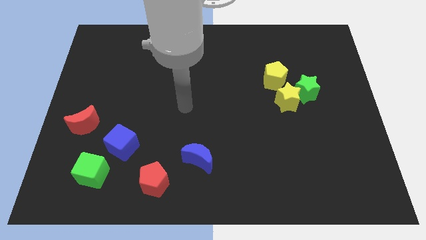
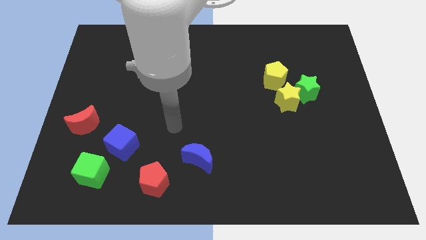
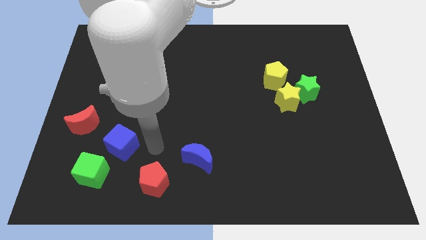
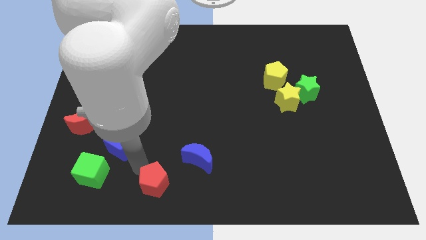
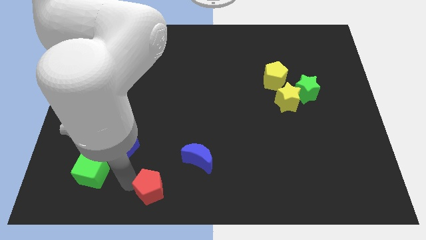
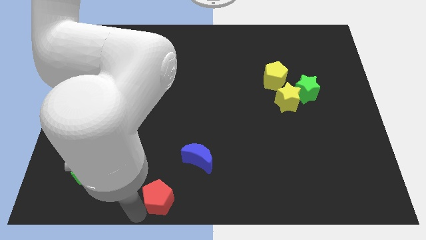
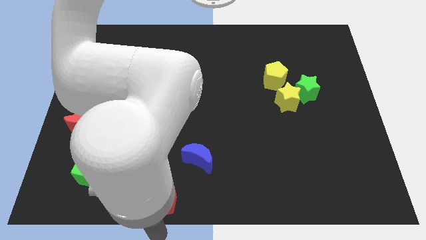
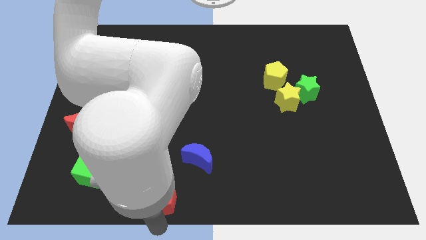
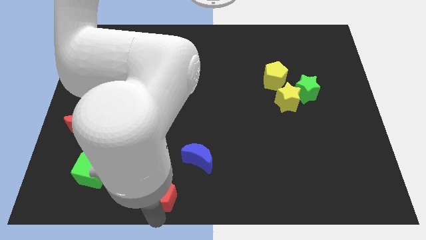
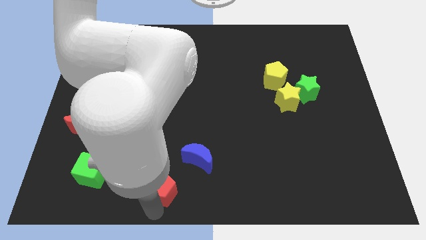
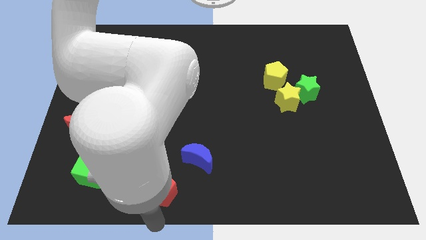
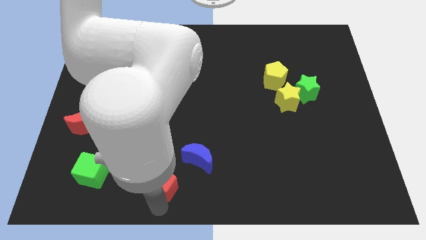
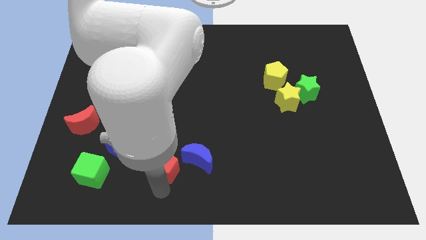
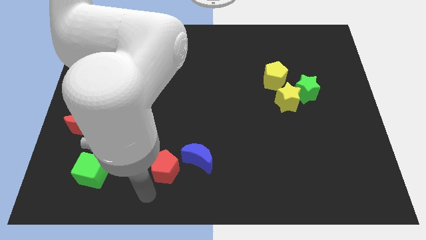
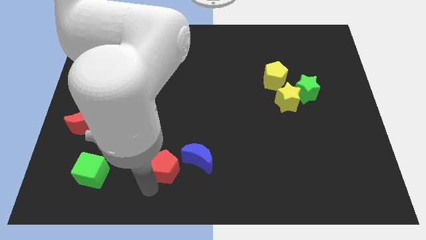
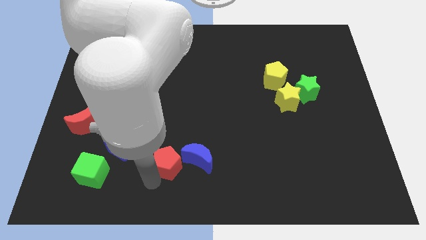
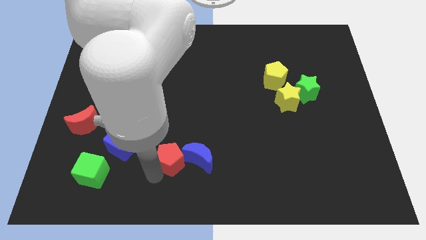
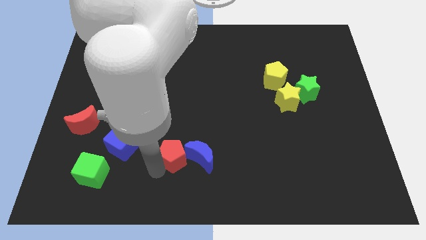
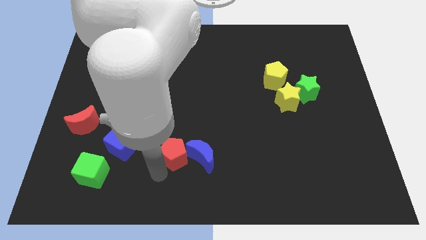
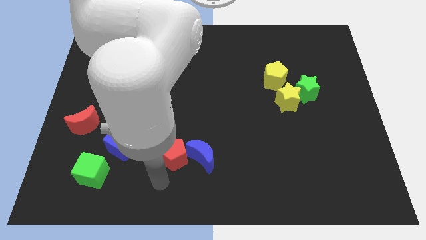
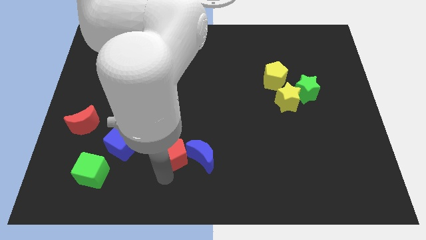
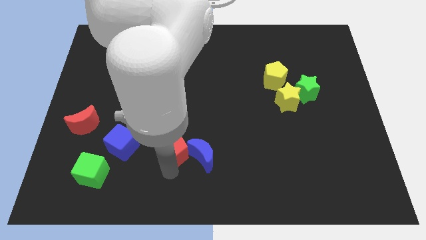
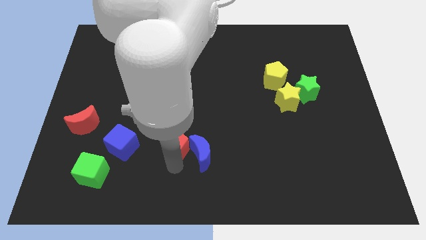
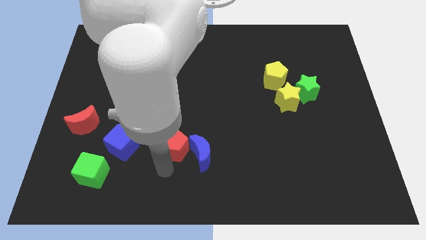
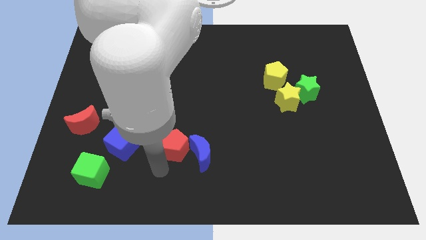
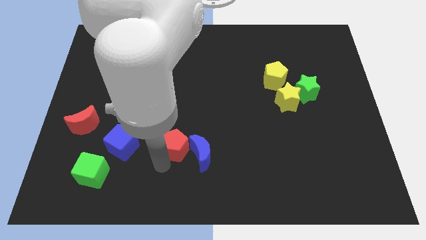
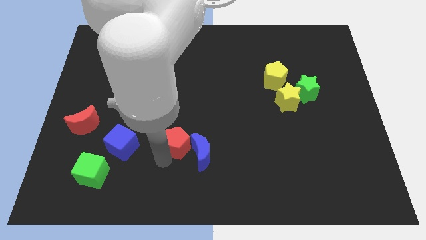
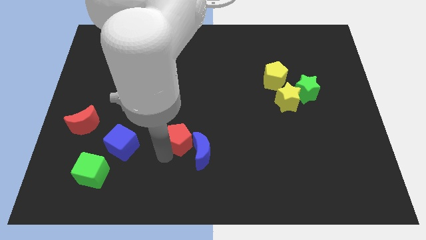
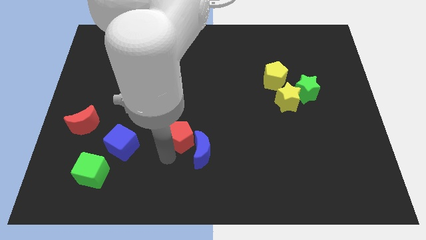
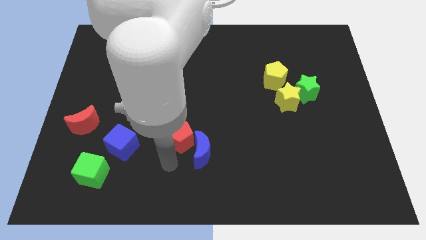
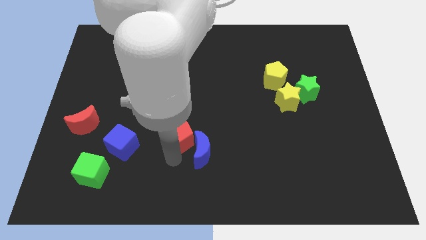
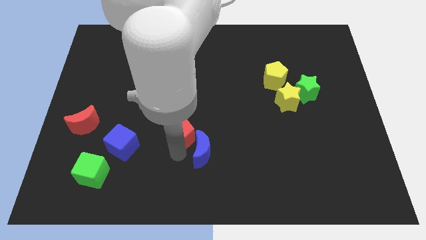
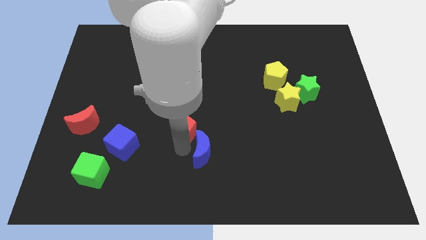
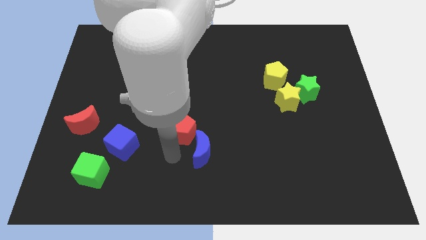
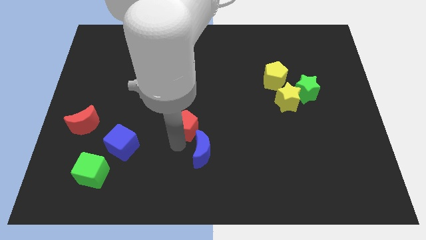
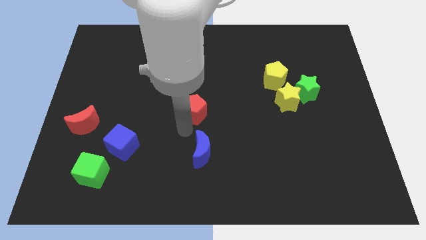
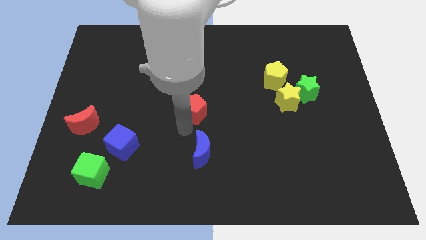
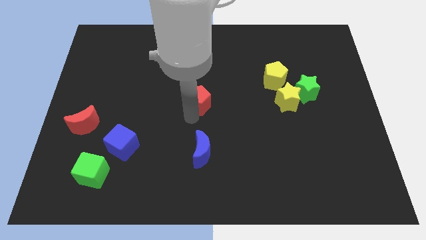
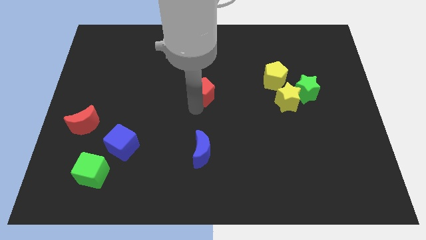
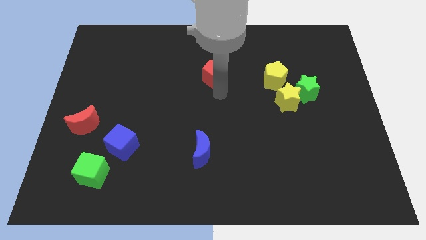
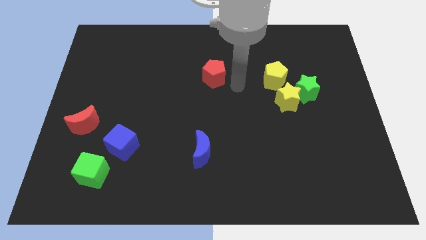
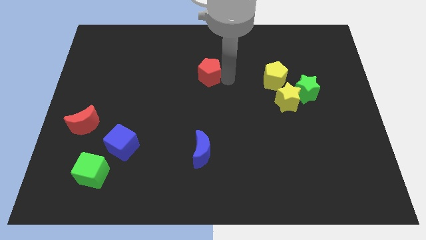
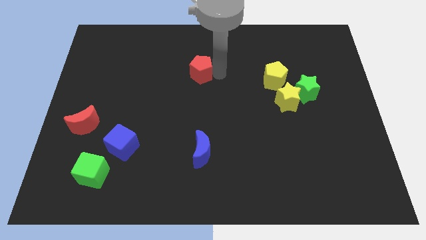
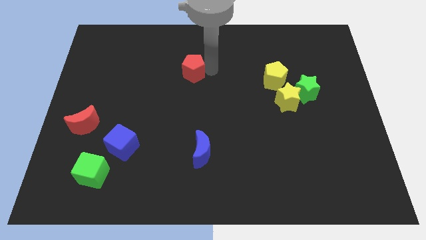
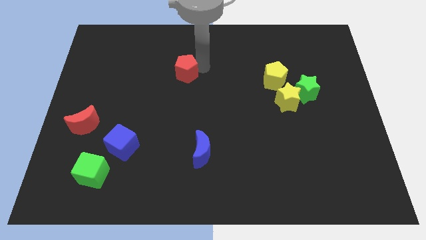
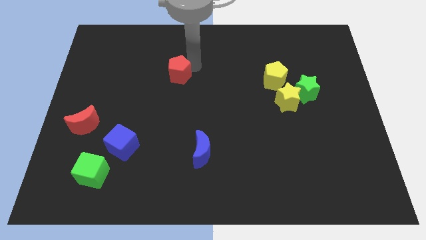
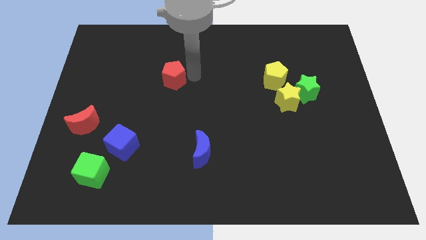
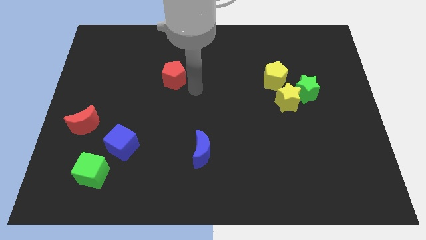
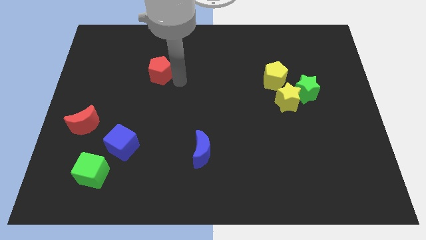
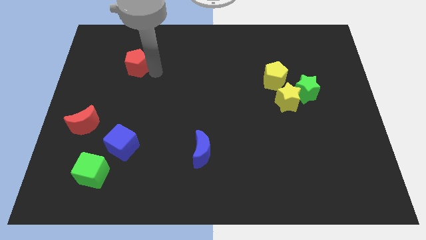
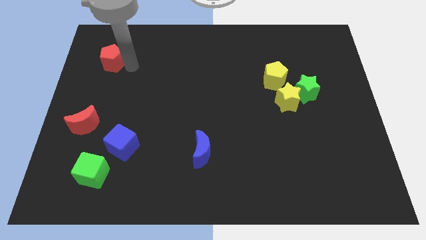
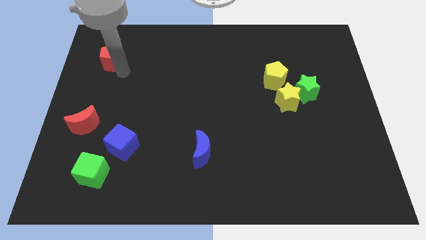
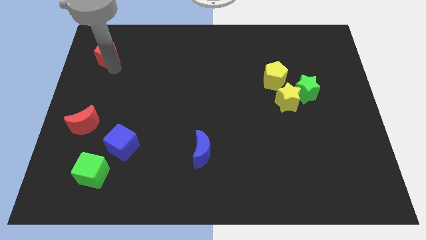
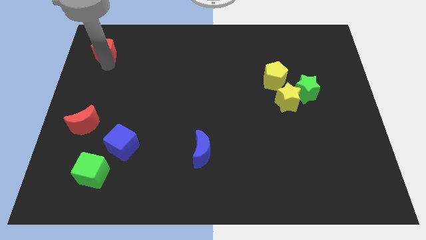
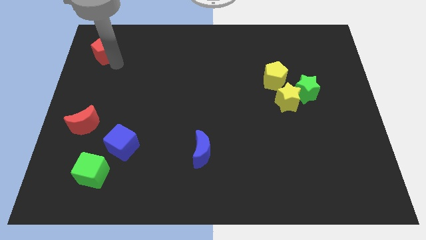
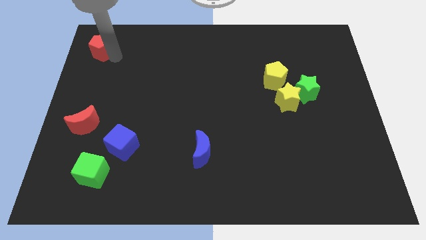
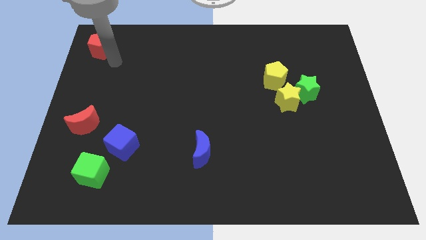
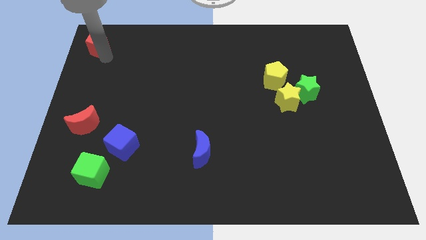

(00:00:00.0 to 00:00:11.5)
put the red pentagon to the top left

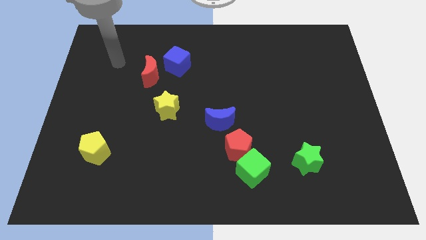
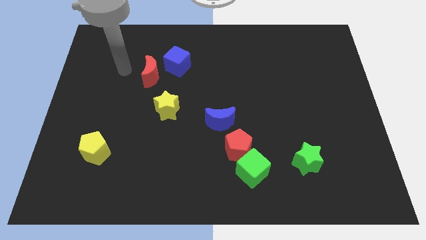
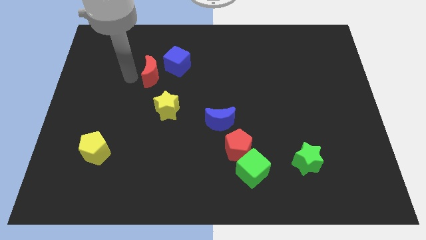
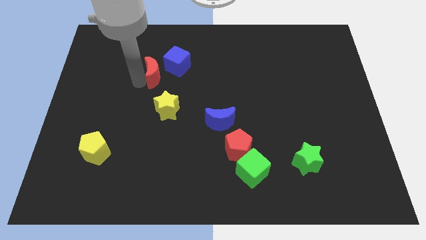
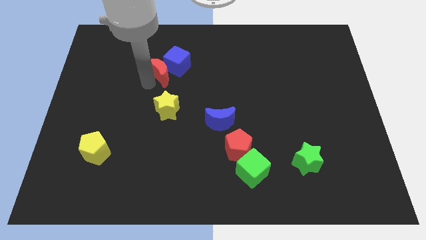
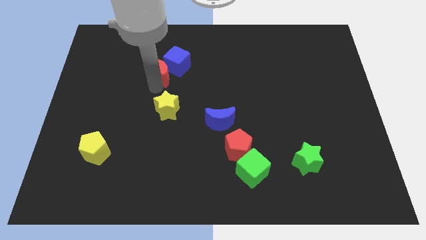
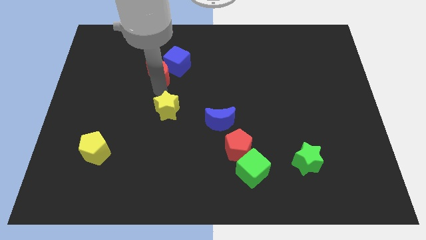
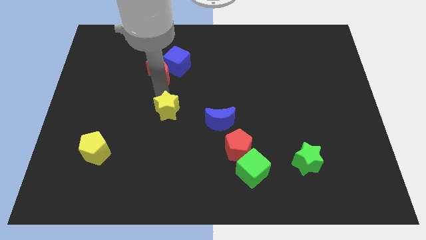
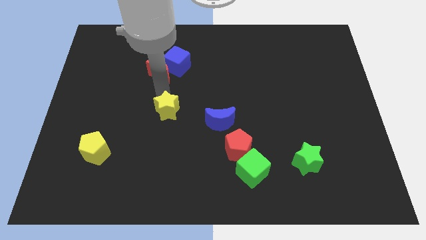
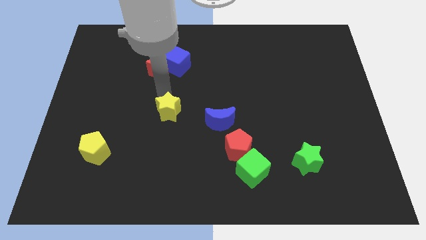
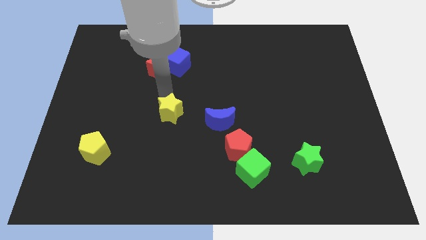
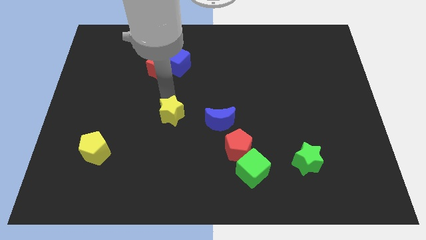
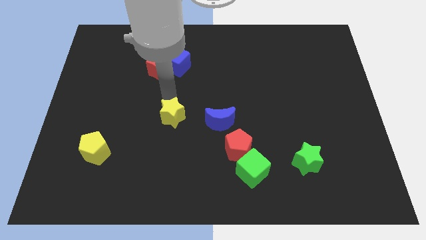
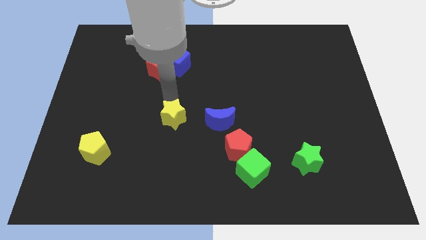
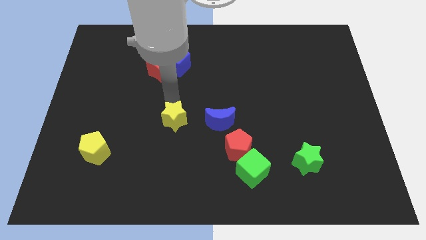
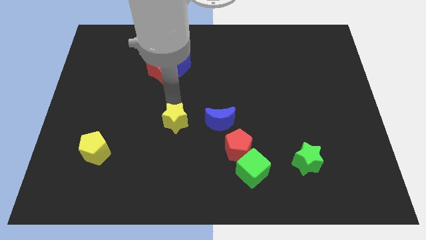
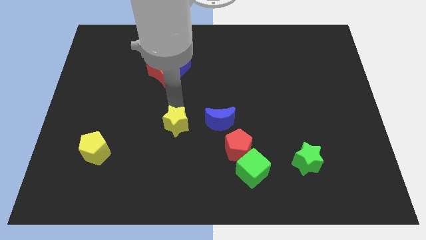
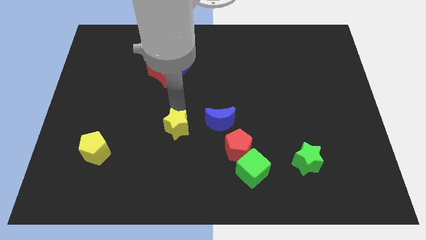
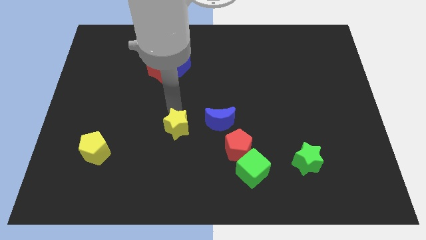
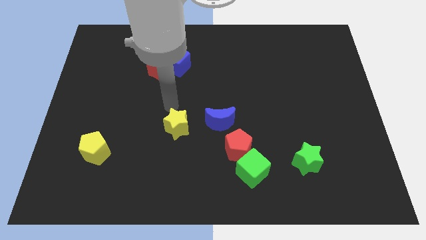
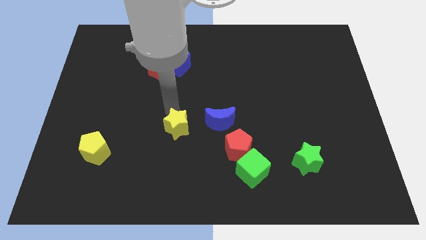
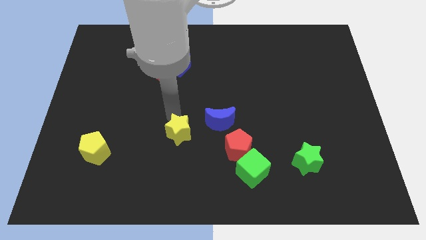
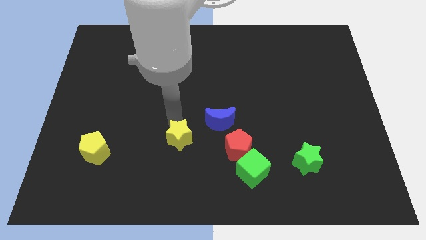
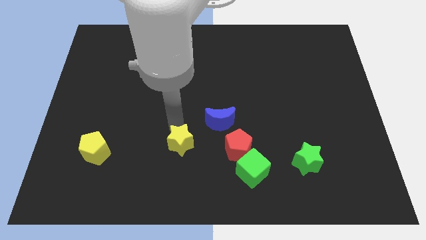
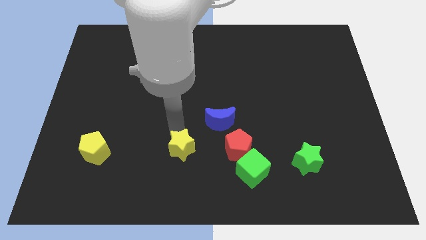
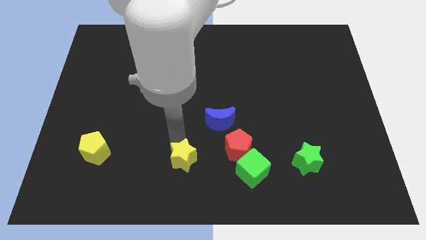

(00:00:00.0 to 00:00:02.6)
push the yellow star to the bottom
